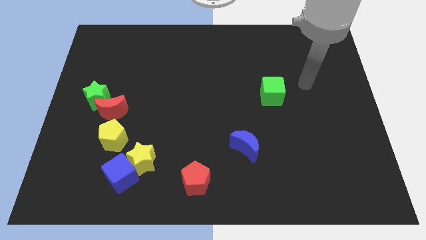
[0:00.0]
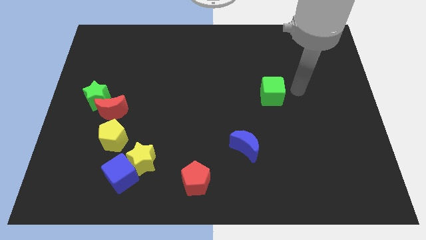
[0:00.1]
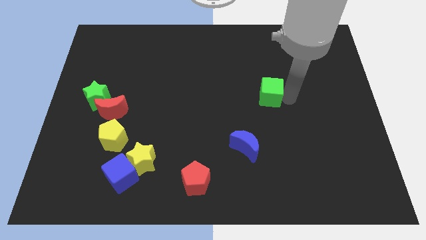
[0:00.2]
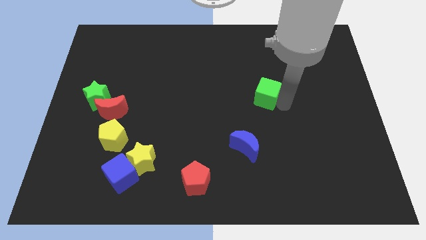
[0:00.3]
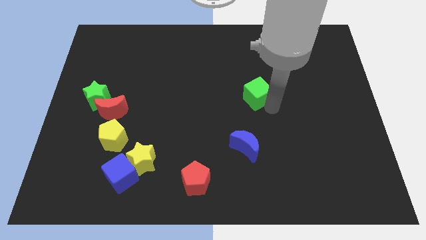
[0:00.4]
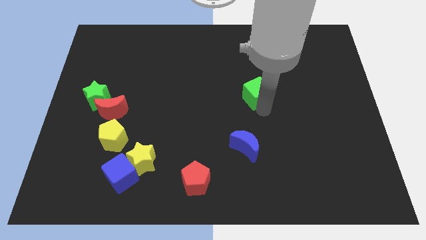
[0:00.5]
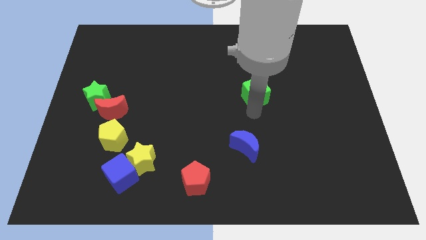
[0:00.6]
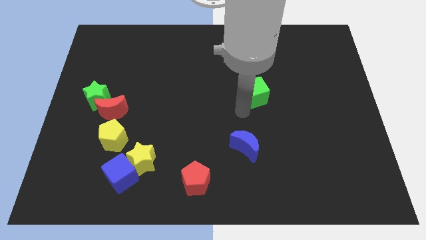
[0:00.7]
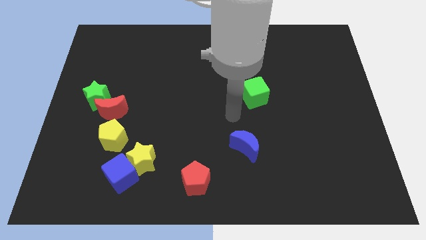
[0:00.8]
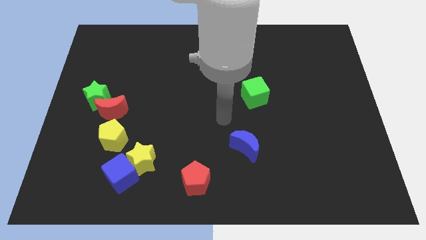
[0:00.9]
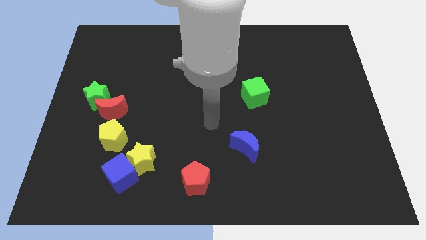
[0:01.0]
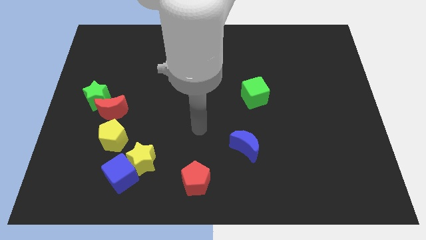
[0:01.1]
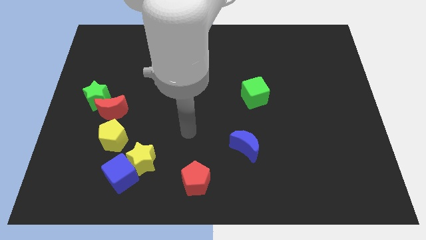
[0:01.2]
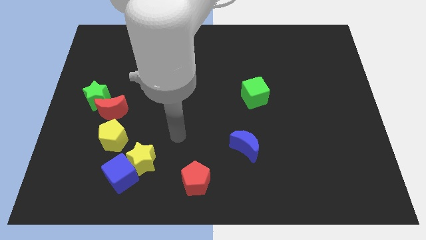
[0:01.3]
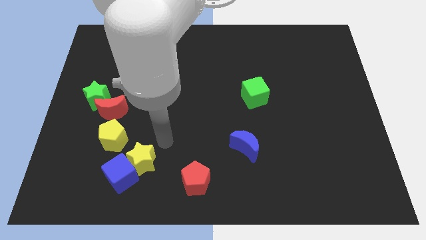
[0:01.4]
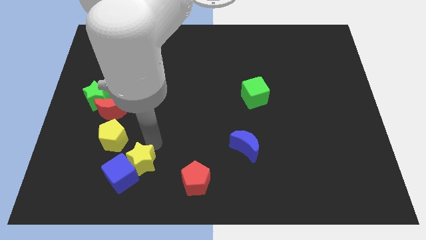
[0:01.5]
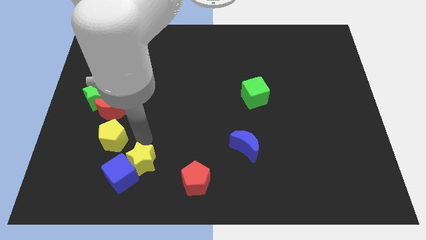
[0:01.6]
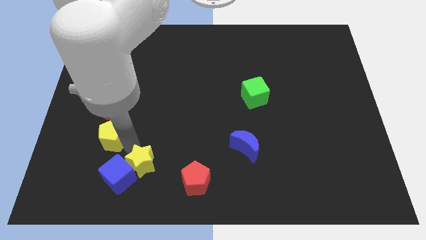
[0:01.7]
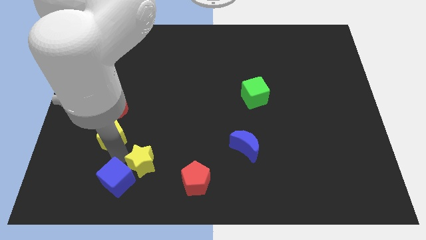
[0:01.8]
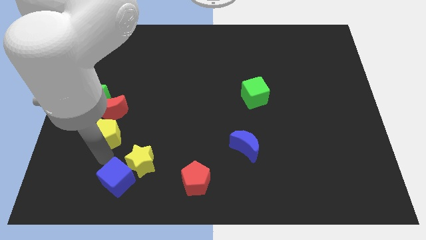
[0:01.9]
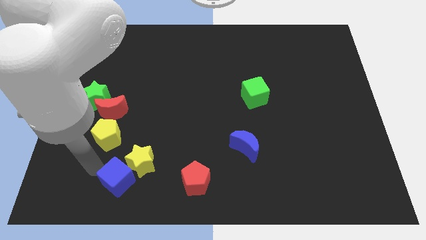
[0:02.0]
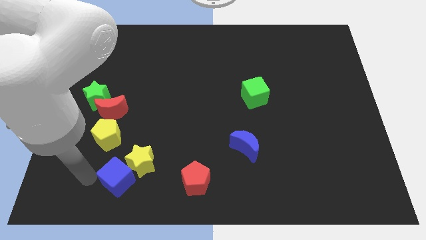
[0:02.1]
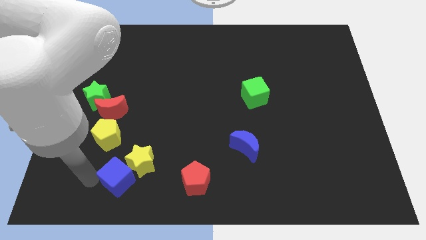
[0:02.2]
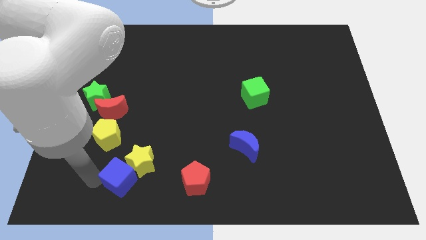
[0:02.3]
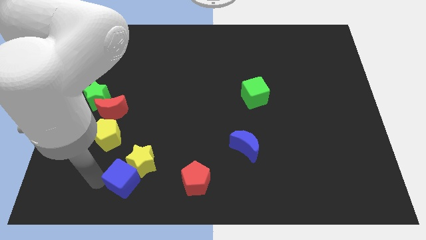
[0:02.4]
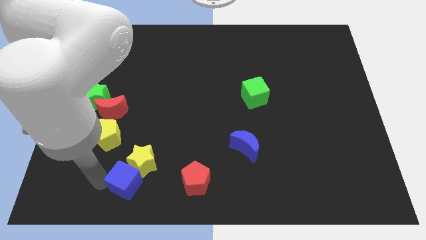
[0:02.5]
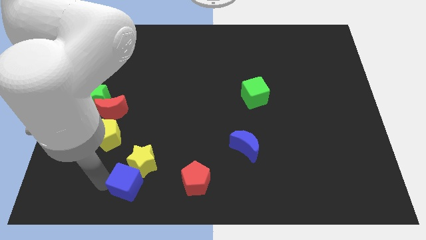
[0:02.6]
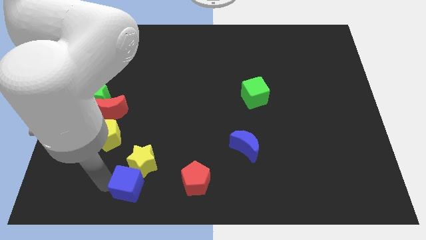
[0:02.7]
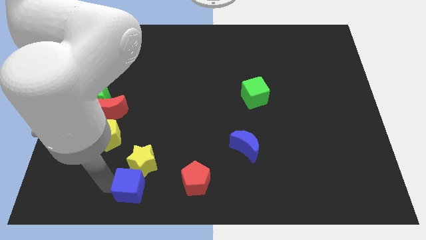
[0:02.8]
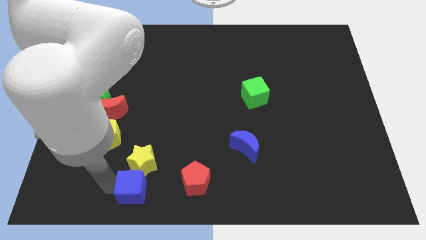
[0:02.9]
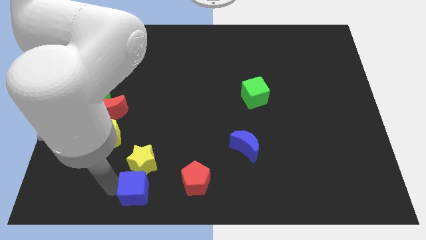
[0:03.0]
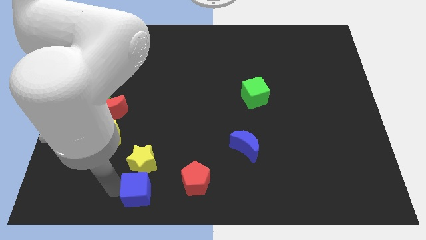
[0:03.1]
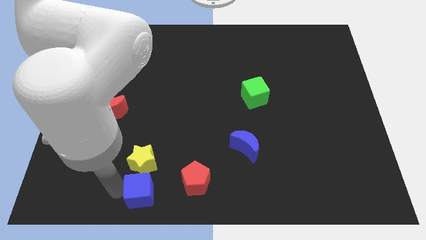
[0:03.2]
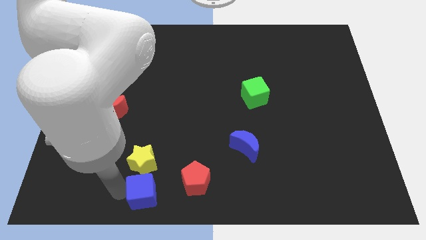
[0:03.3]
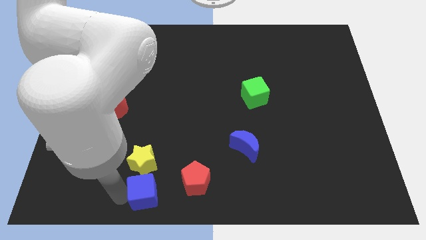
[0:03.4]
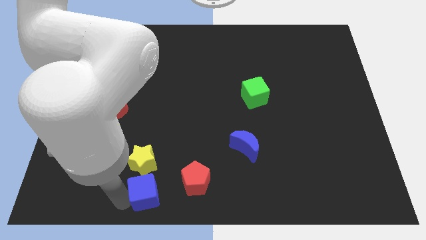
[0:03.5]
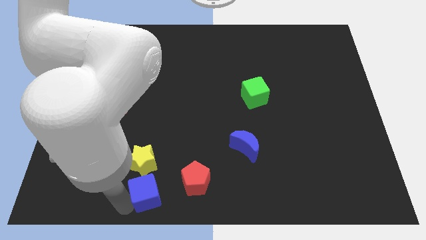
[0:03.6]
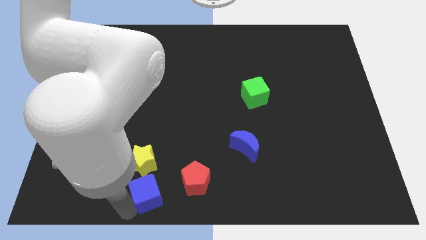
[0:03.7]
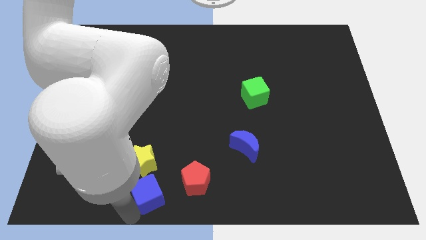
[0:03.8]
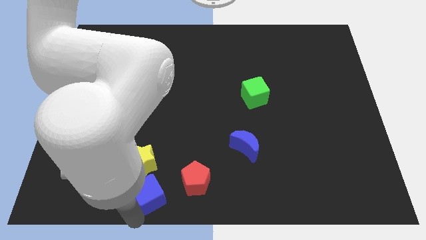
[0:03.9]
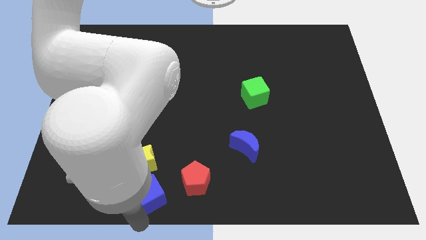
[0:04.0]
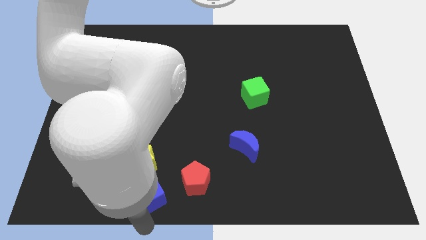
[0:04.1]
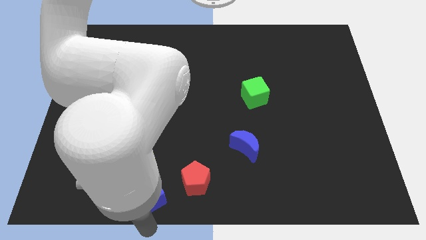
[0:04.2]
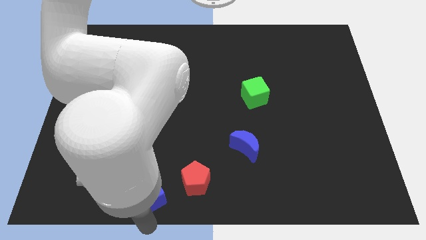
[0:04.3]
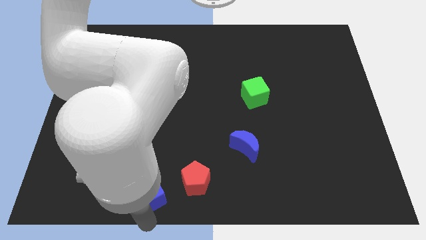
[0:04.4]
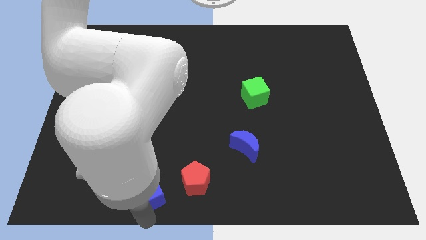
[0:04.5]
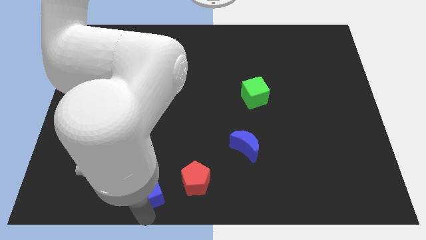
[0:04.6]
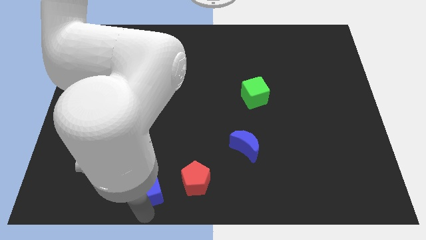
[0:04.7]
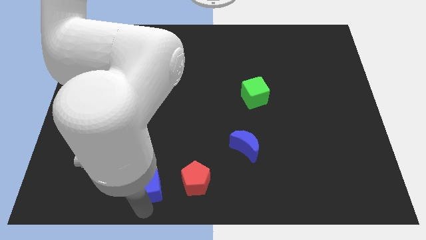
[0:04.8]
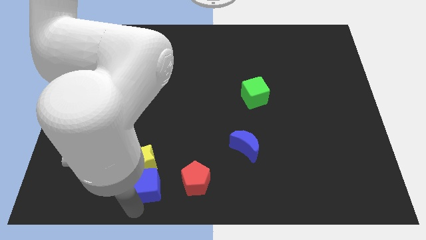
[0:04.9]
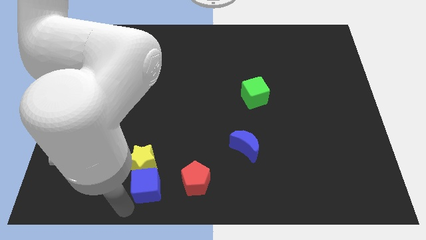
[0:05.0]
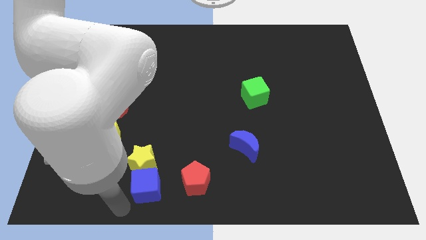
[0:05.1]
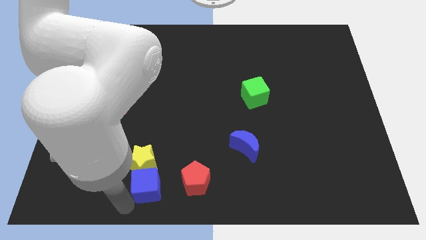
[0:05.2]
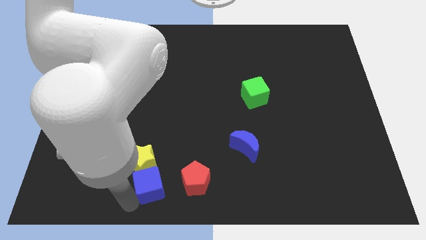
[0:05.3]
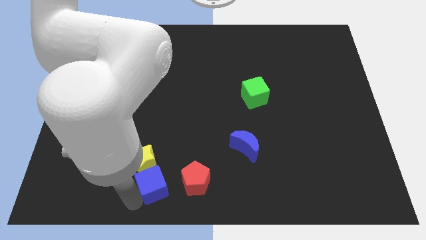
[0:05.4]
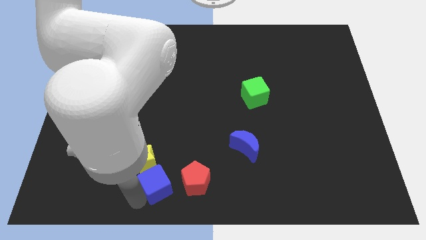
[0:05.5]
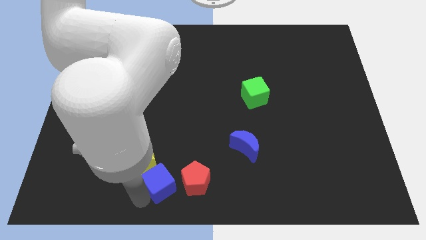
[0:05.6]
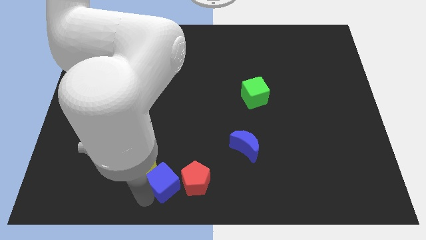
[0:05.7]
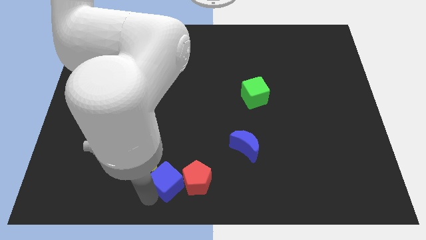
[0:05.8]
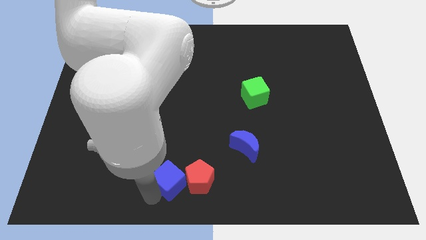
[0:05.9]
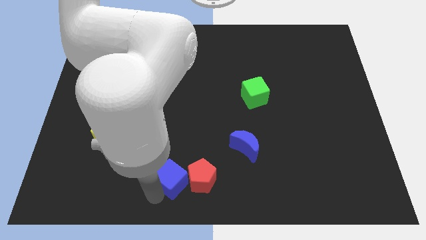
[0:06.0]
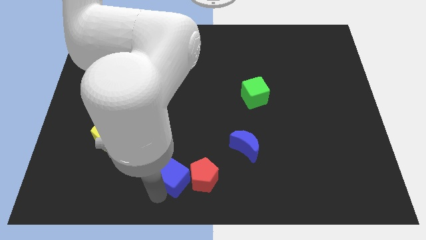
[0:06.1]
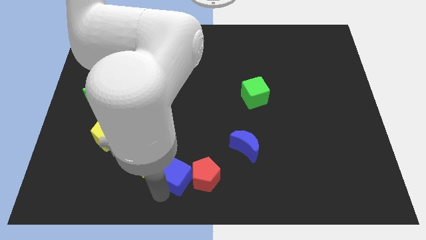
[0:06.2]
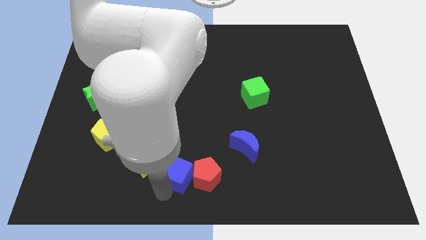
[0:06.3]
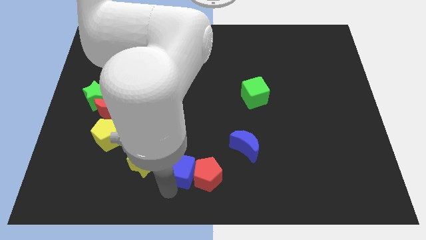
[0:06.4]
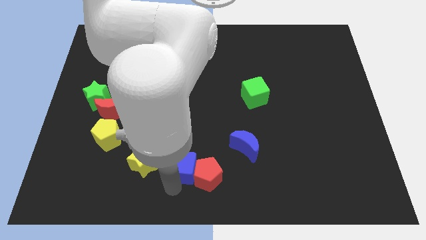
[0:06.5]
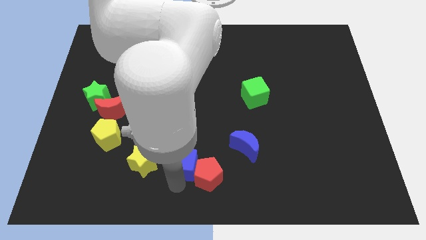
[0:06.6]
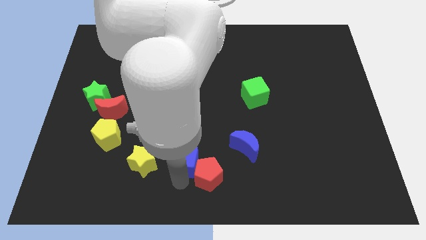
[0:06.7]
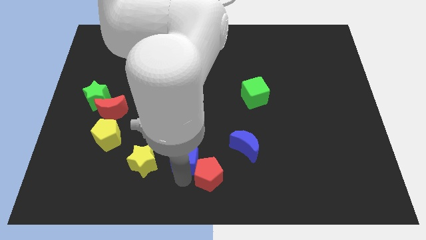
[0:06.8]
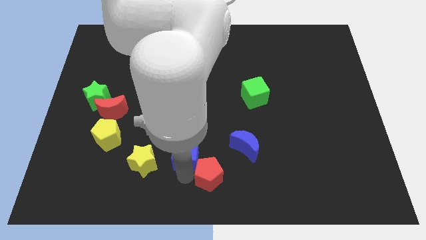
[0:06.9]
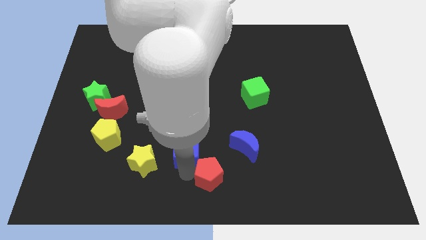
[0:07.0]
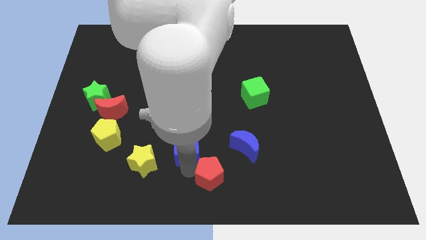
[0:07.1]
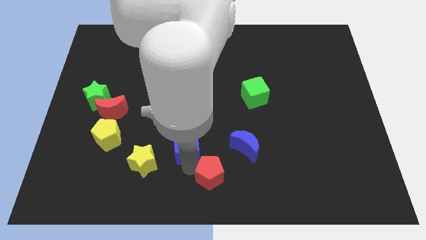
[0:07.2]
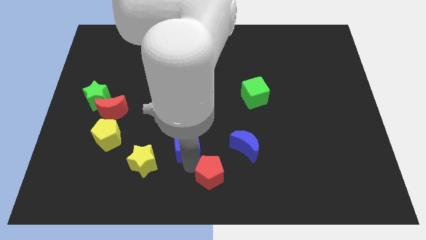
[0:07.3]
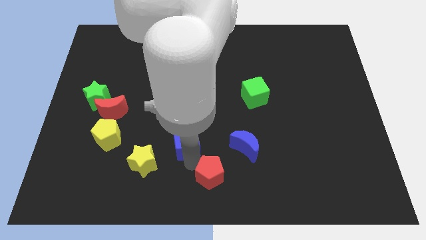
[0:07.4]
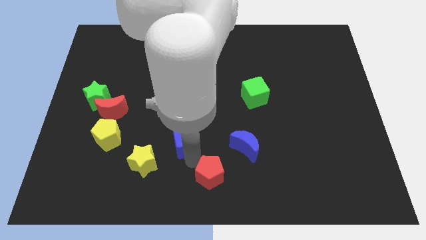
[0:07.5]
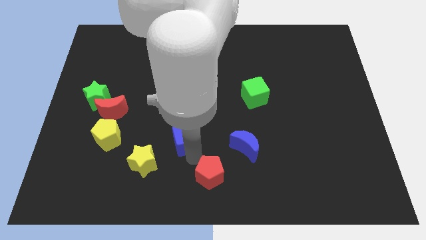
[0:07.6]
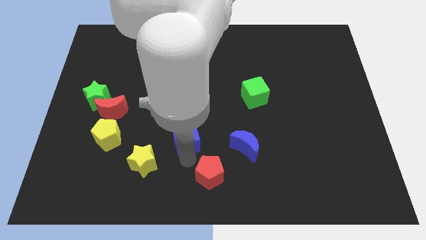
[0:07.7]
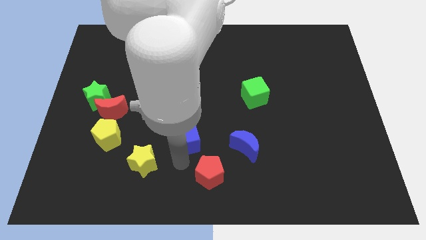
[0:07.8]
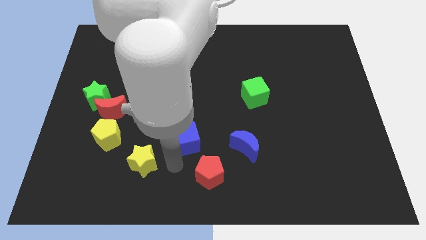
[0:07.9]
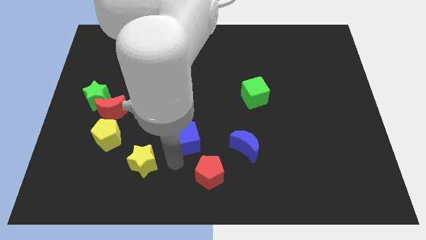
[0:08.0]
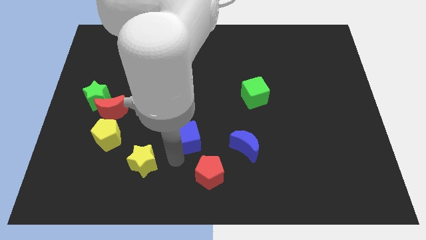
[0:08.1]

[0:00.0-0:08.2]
push the blue cube to the middle of the board
